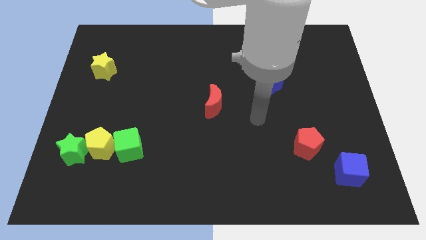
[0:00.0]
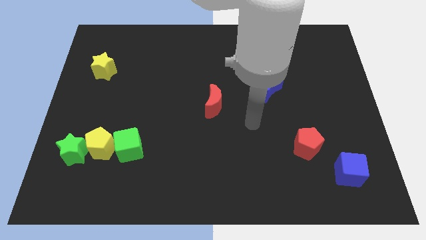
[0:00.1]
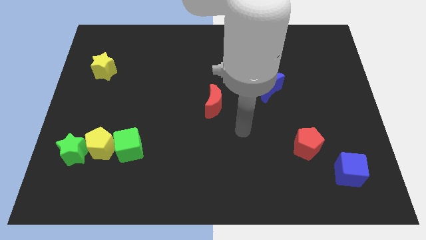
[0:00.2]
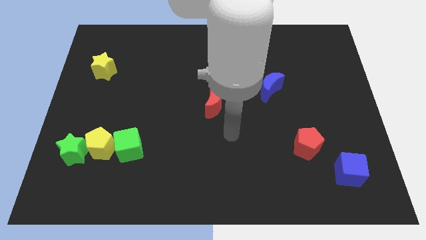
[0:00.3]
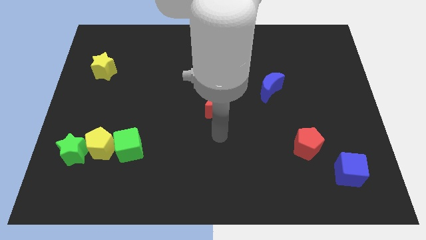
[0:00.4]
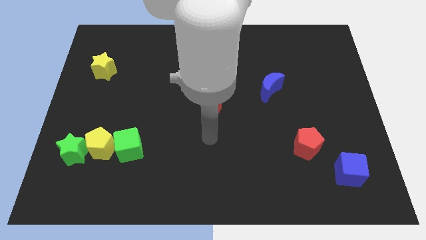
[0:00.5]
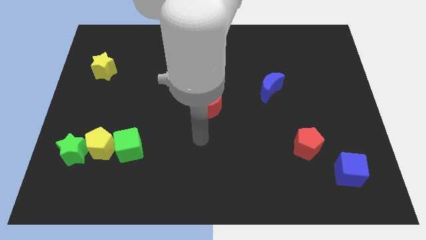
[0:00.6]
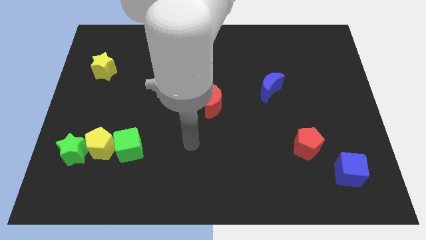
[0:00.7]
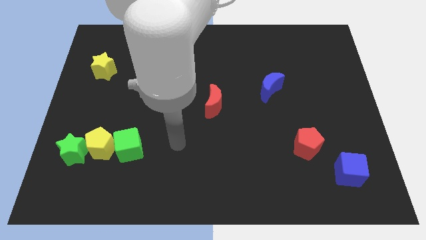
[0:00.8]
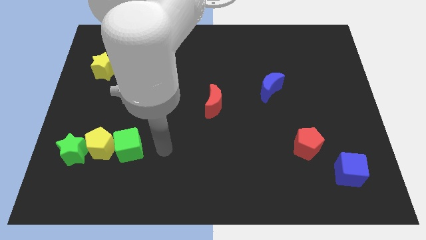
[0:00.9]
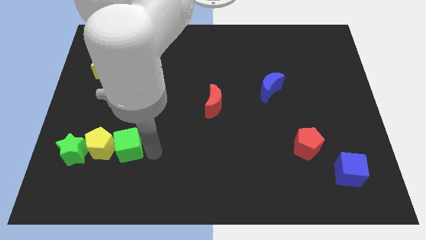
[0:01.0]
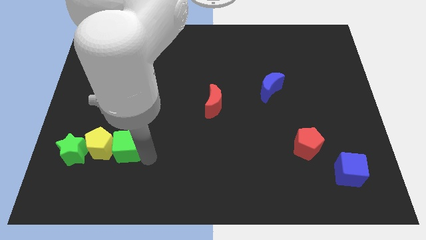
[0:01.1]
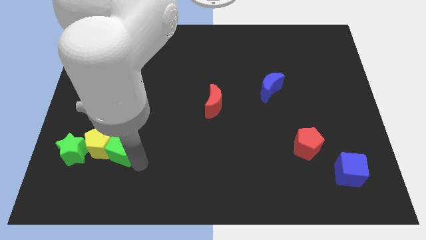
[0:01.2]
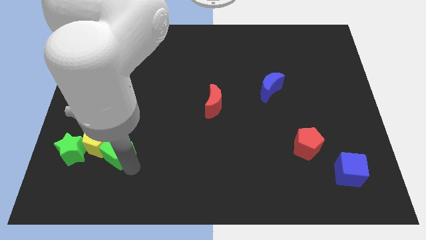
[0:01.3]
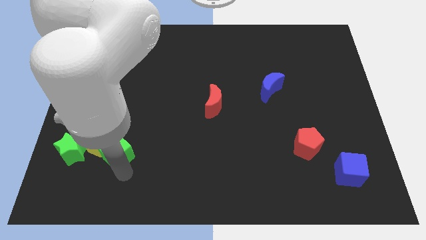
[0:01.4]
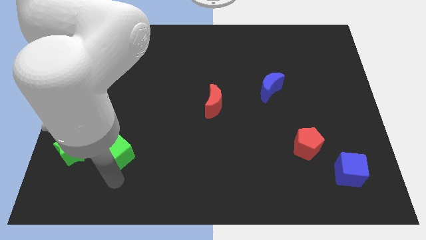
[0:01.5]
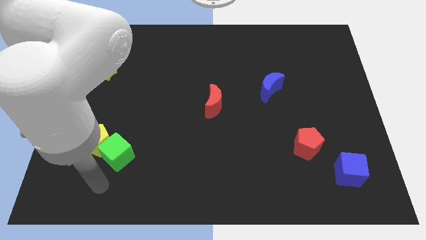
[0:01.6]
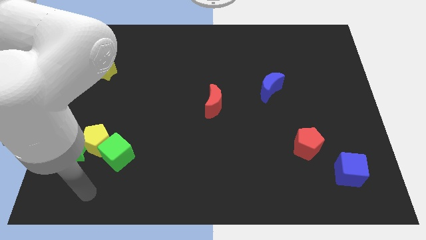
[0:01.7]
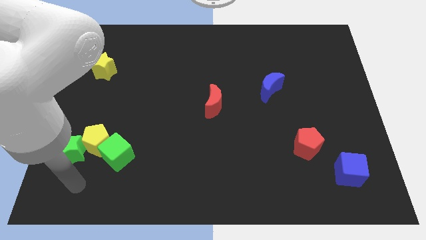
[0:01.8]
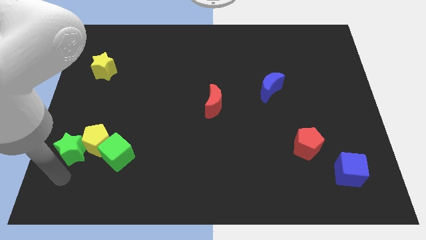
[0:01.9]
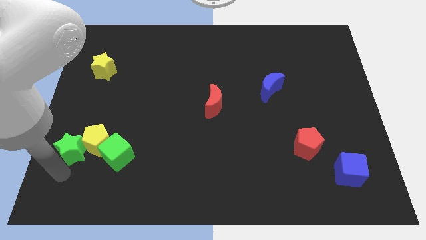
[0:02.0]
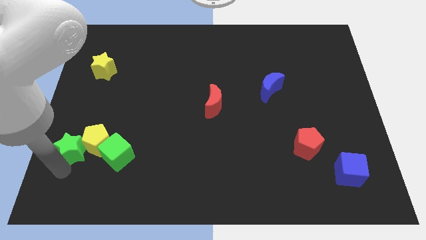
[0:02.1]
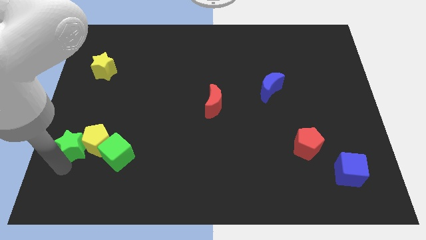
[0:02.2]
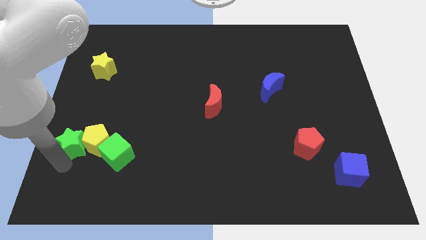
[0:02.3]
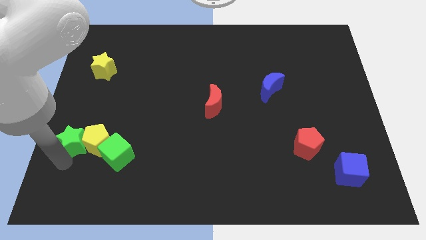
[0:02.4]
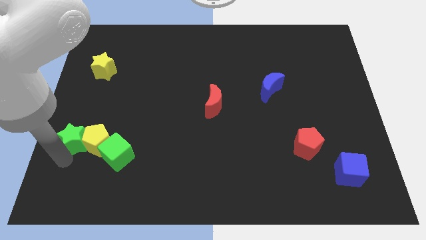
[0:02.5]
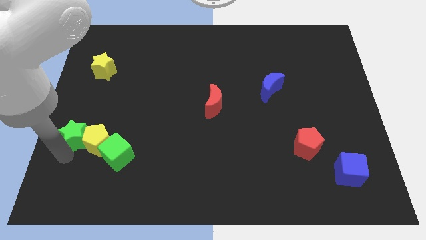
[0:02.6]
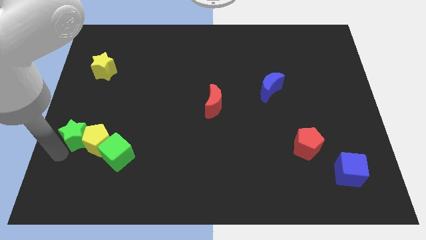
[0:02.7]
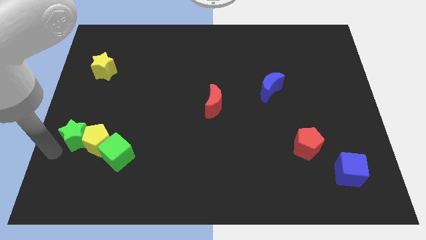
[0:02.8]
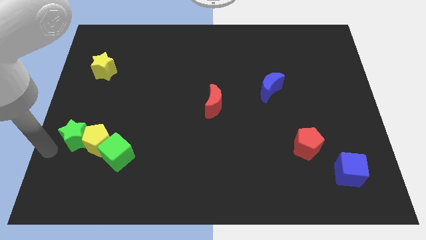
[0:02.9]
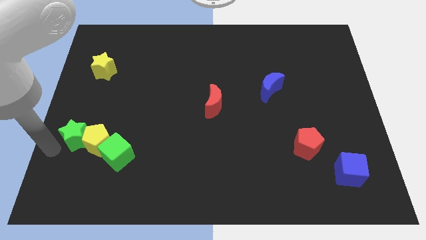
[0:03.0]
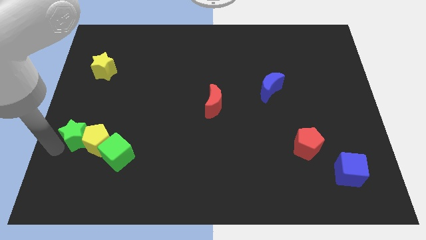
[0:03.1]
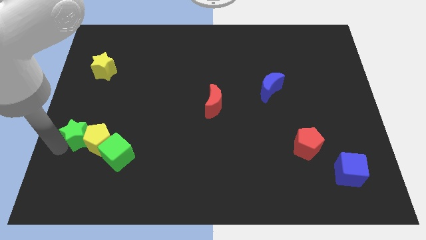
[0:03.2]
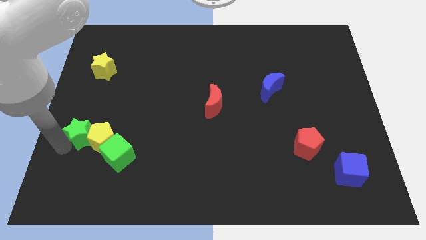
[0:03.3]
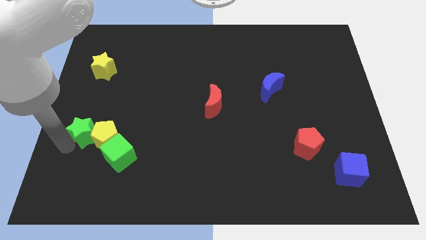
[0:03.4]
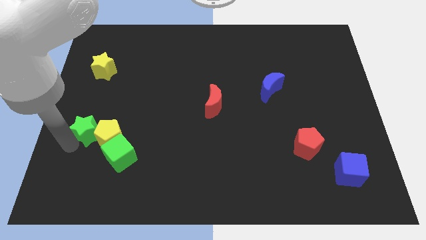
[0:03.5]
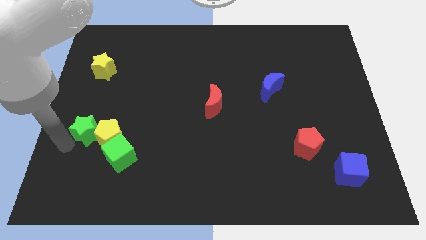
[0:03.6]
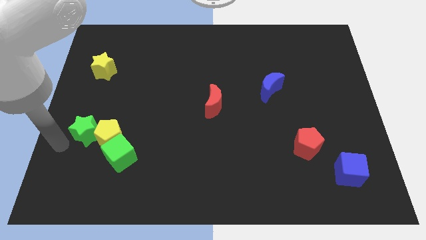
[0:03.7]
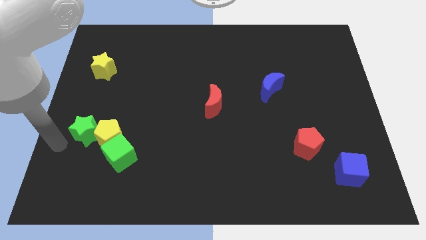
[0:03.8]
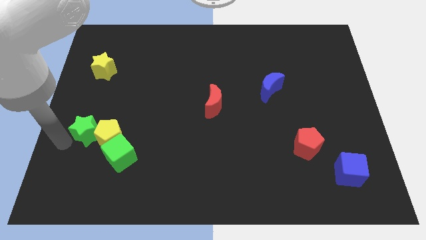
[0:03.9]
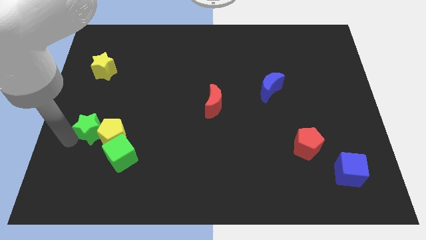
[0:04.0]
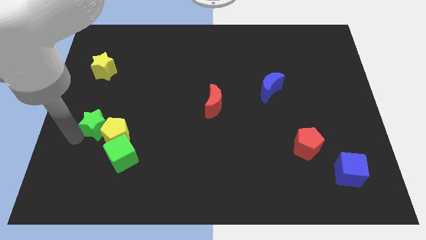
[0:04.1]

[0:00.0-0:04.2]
slide the green star diagonally upwards and to the right a bit

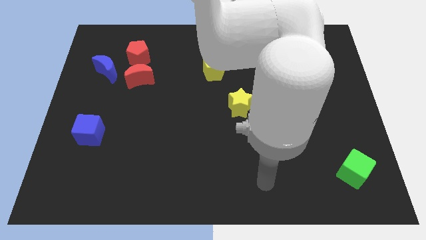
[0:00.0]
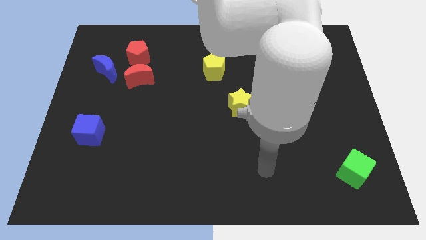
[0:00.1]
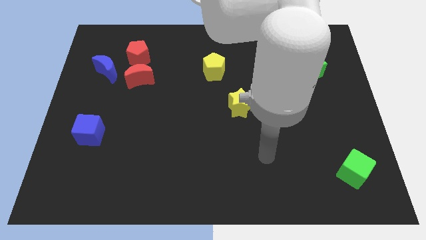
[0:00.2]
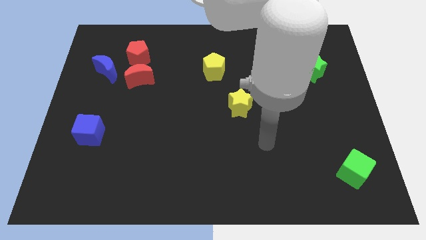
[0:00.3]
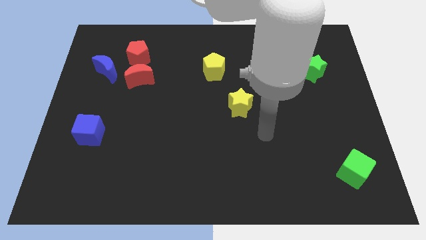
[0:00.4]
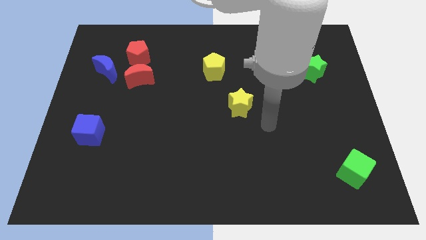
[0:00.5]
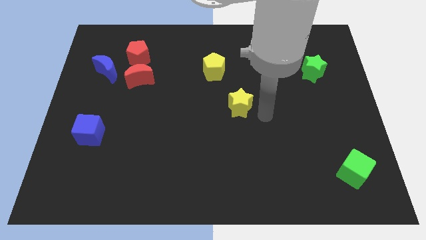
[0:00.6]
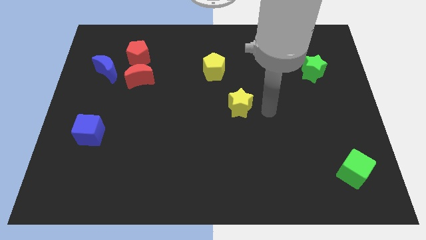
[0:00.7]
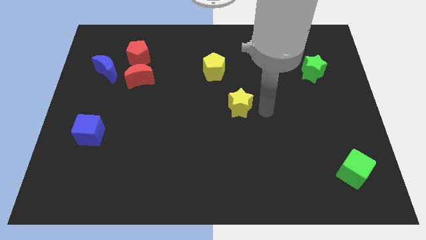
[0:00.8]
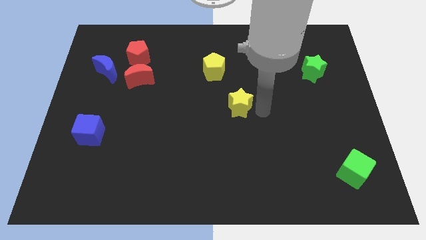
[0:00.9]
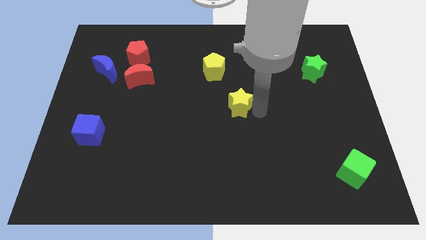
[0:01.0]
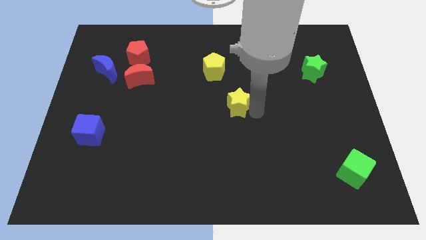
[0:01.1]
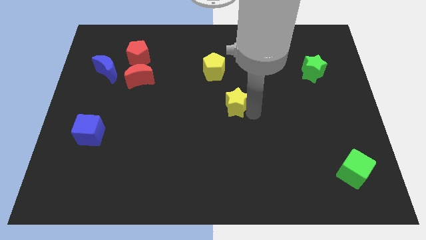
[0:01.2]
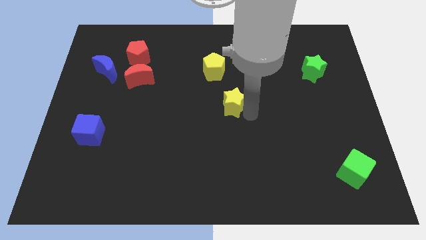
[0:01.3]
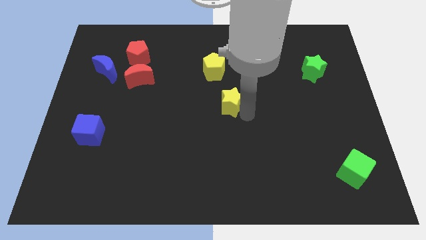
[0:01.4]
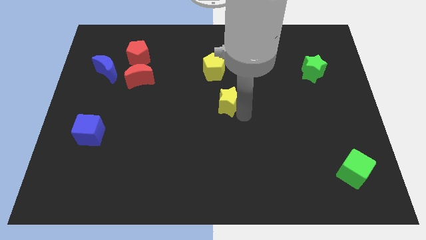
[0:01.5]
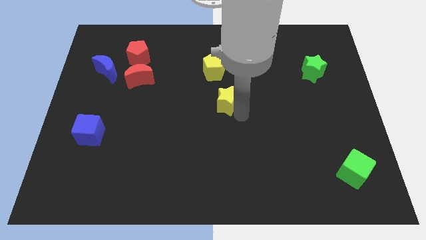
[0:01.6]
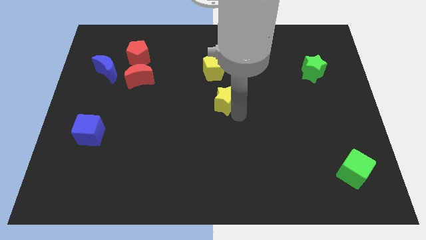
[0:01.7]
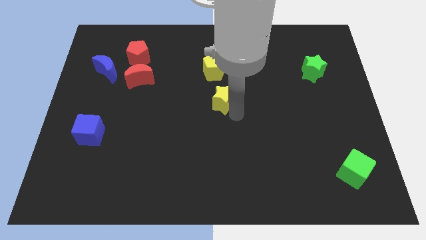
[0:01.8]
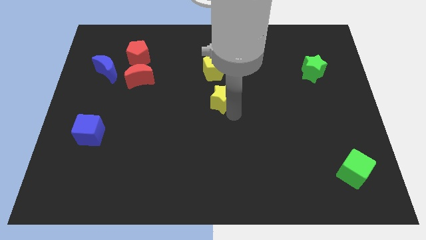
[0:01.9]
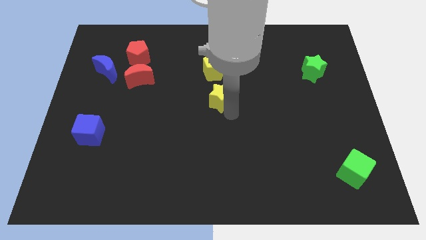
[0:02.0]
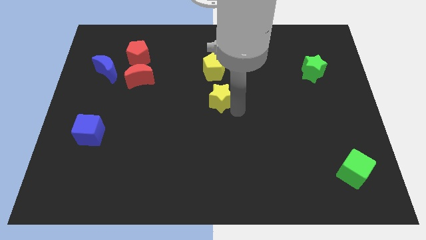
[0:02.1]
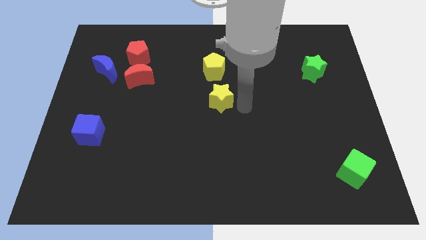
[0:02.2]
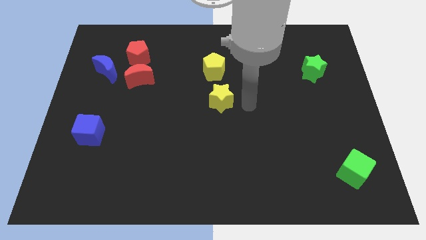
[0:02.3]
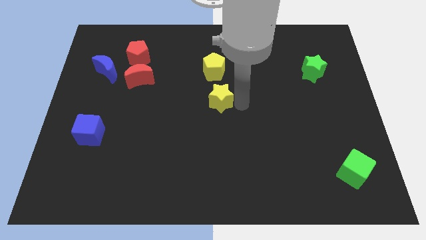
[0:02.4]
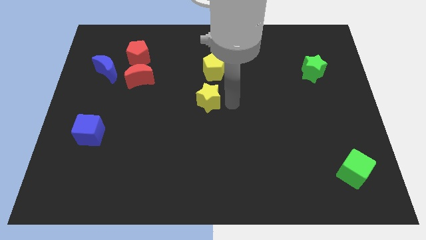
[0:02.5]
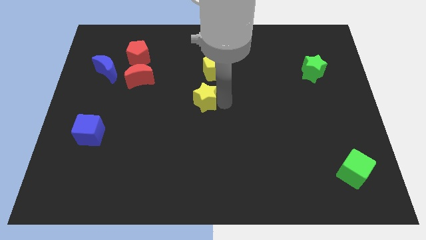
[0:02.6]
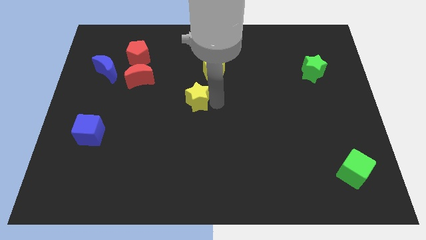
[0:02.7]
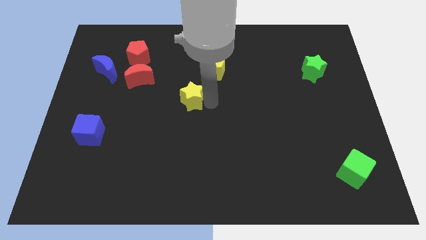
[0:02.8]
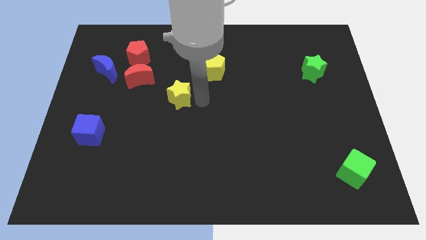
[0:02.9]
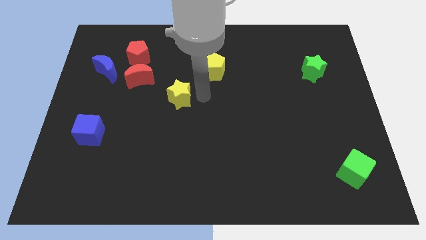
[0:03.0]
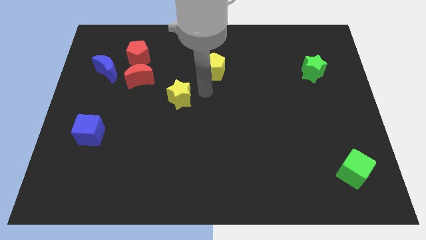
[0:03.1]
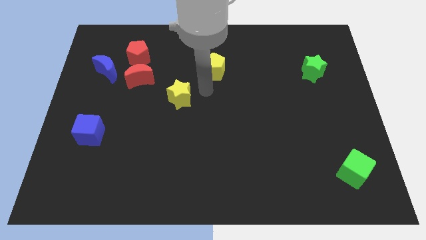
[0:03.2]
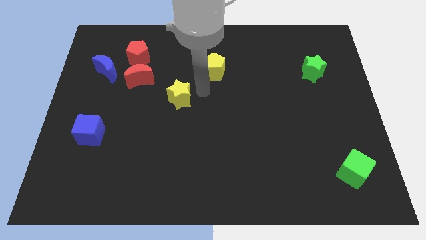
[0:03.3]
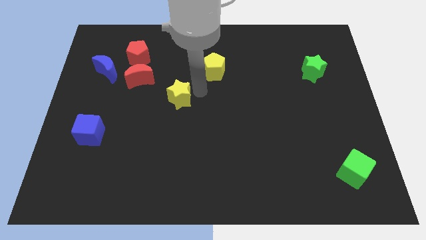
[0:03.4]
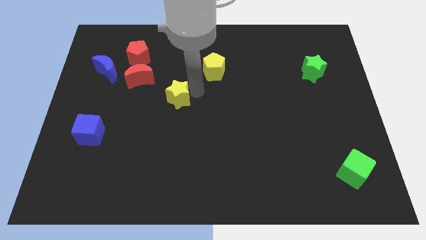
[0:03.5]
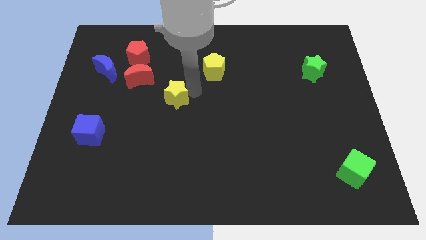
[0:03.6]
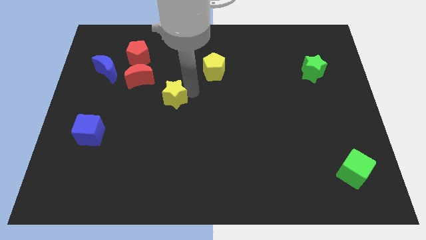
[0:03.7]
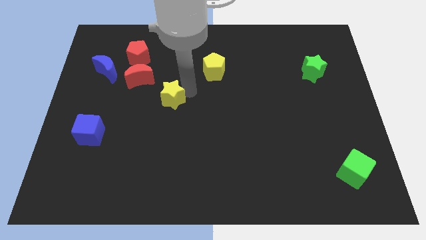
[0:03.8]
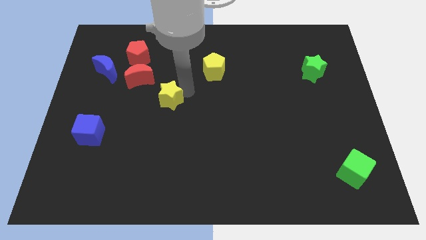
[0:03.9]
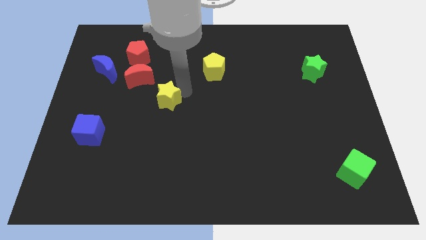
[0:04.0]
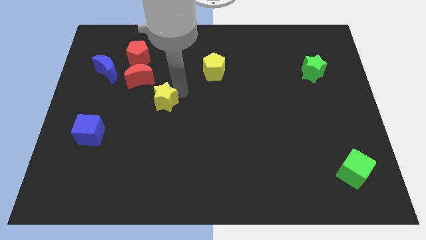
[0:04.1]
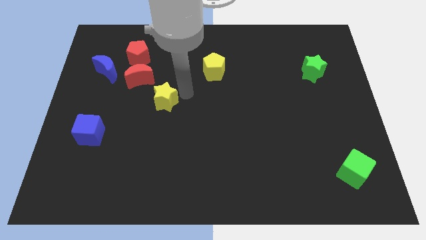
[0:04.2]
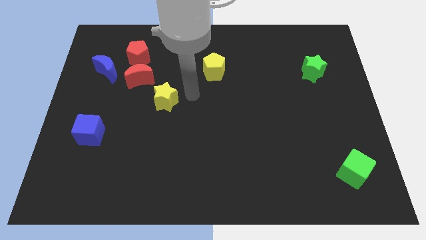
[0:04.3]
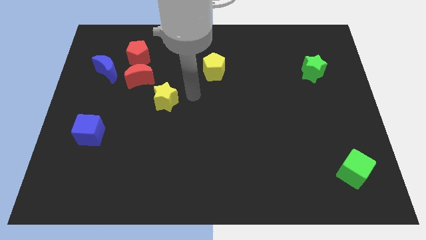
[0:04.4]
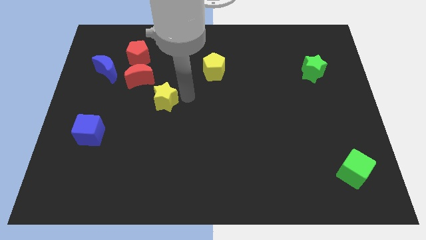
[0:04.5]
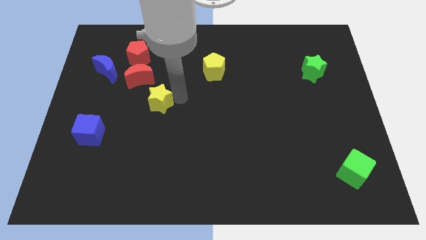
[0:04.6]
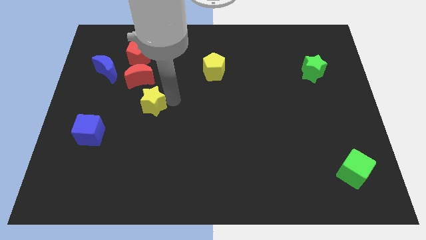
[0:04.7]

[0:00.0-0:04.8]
move the yellow star left
